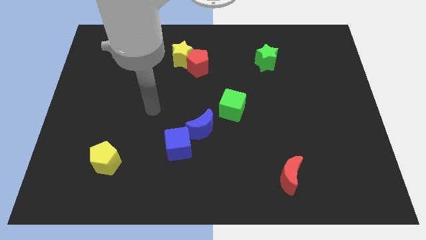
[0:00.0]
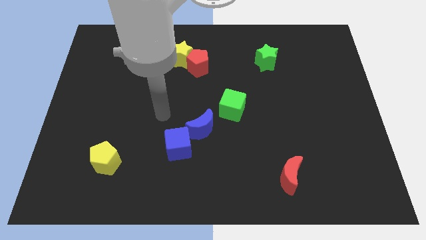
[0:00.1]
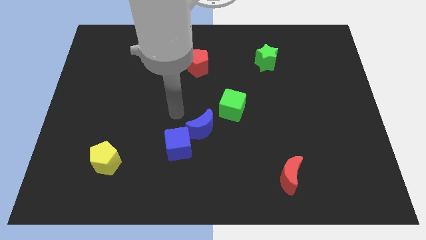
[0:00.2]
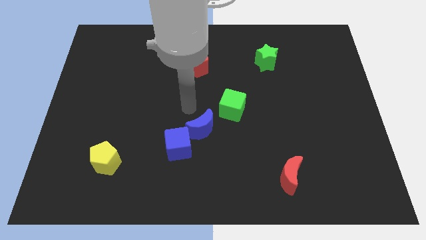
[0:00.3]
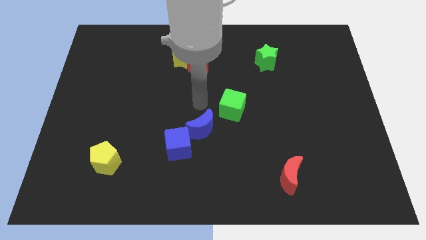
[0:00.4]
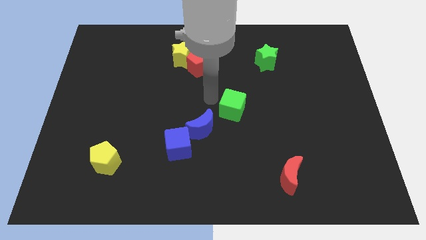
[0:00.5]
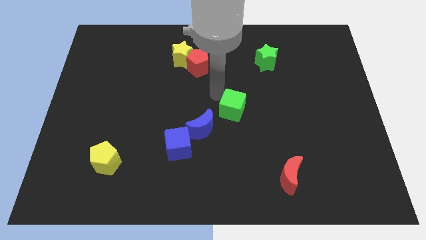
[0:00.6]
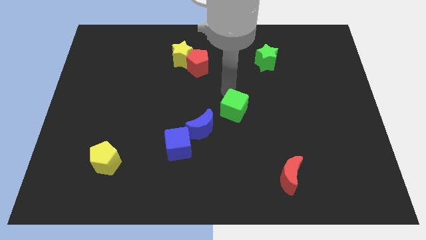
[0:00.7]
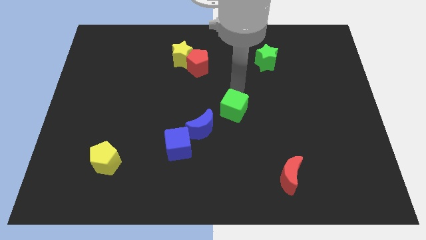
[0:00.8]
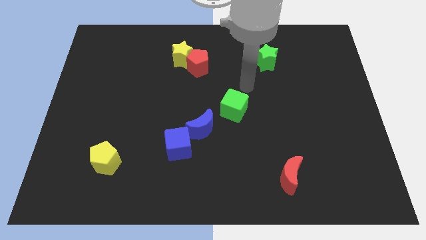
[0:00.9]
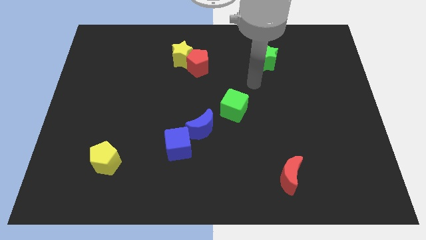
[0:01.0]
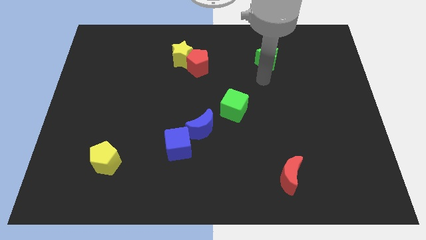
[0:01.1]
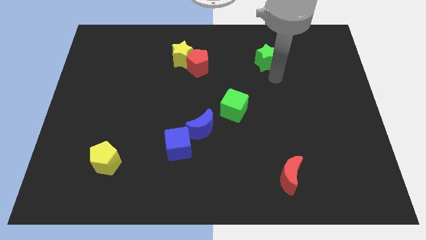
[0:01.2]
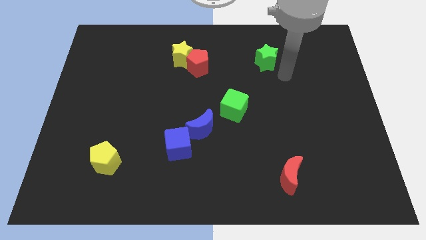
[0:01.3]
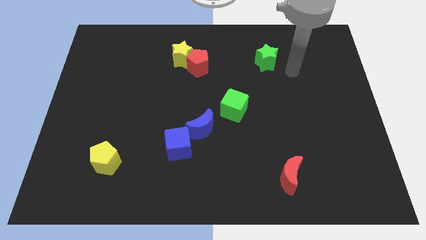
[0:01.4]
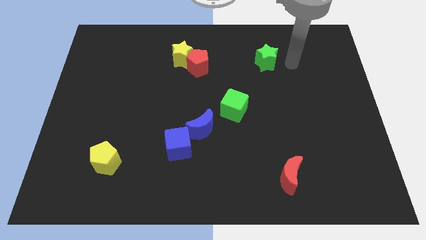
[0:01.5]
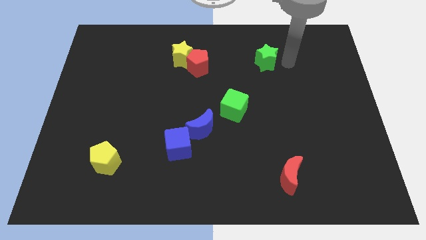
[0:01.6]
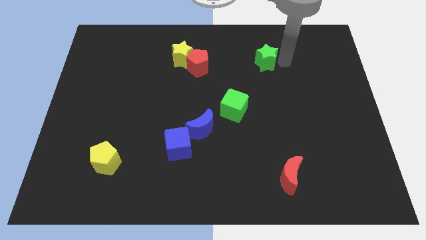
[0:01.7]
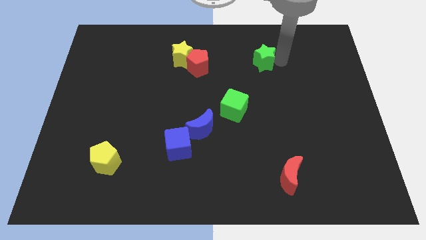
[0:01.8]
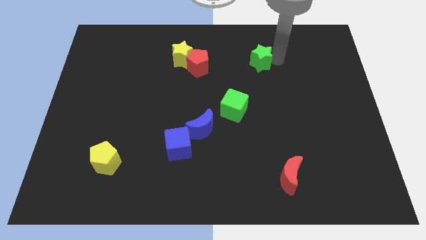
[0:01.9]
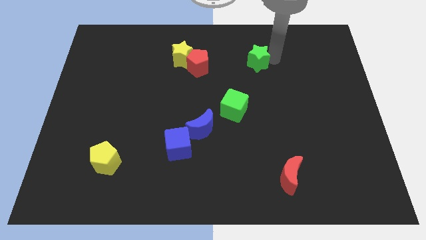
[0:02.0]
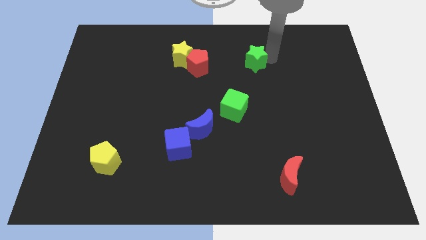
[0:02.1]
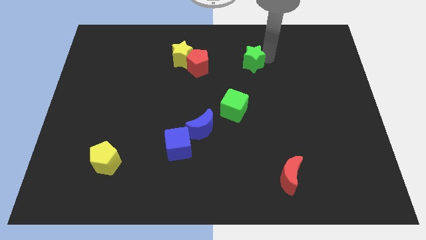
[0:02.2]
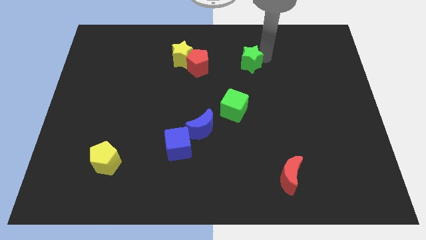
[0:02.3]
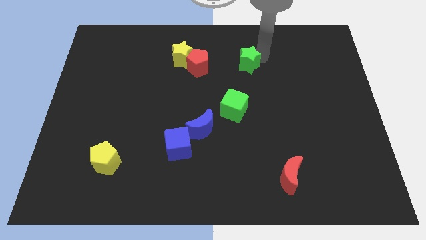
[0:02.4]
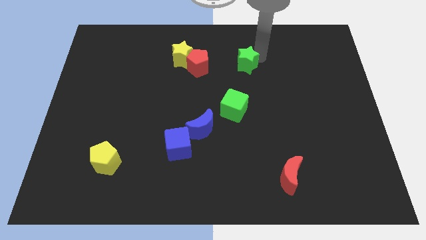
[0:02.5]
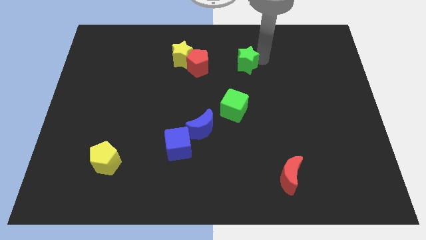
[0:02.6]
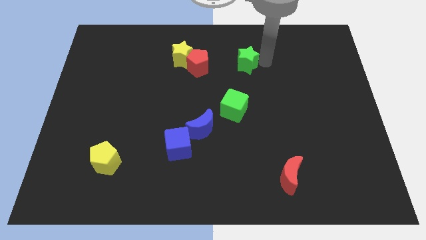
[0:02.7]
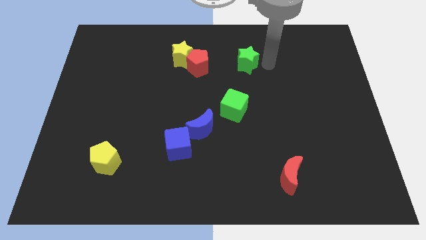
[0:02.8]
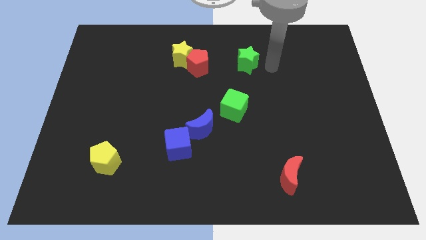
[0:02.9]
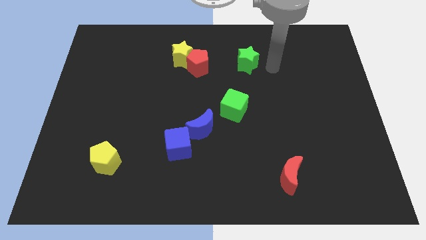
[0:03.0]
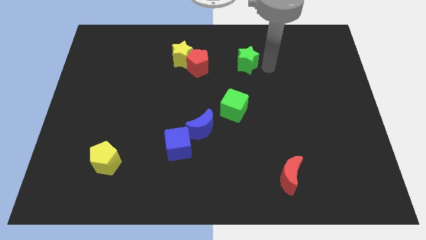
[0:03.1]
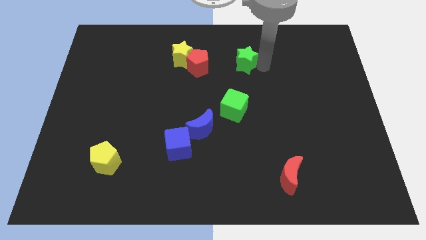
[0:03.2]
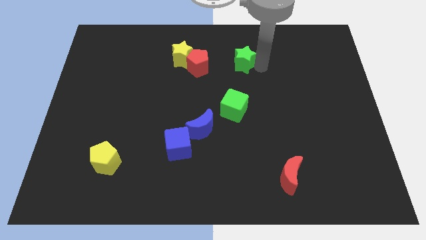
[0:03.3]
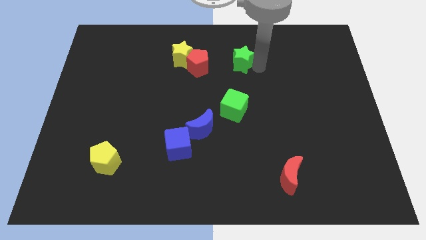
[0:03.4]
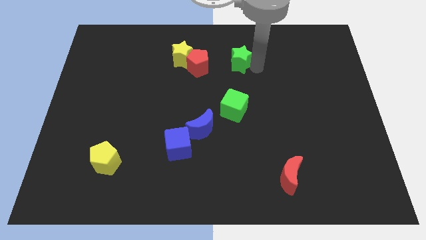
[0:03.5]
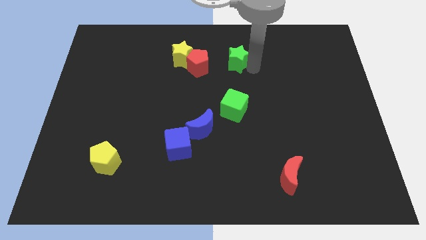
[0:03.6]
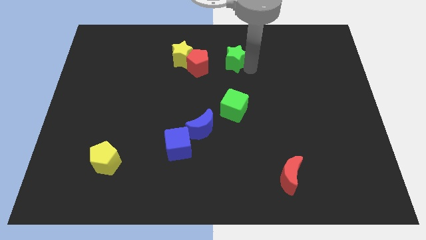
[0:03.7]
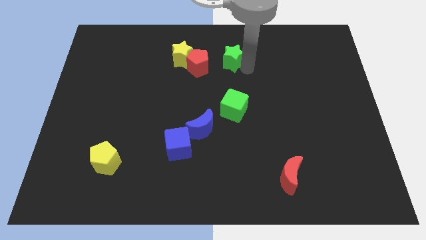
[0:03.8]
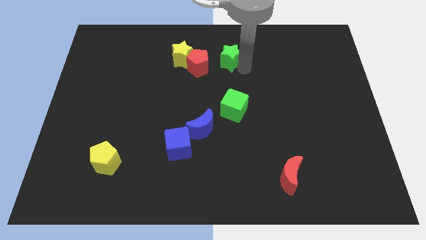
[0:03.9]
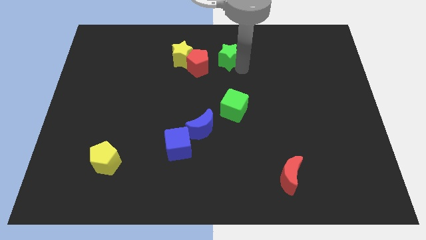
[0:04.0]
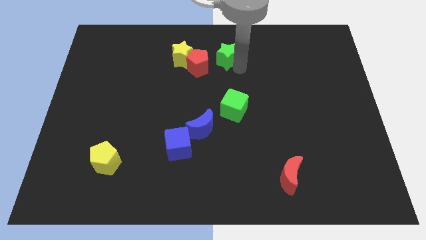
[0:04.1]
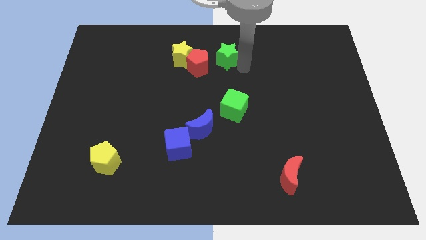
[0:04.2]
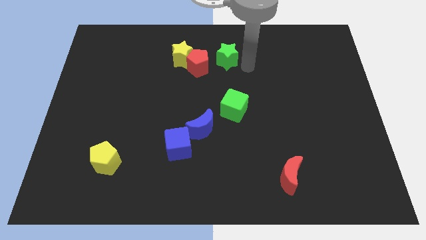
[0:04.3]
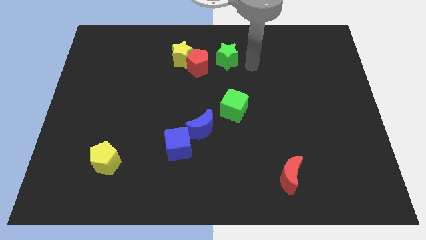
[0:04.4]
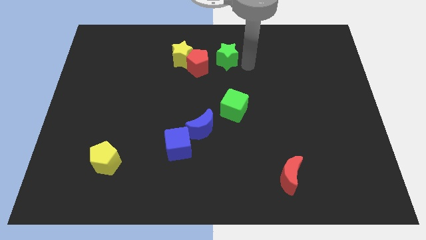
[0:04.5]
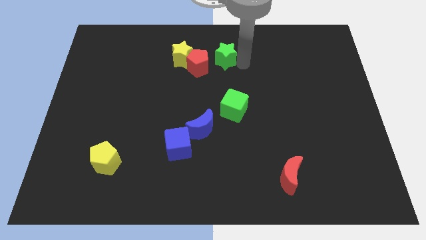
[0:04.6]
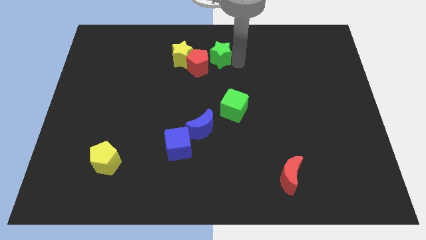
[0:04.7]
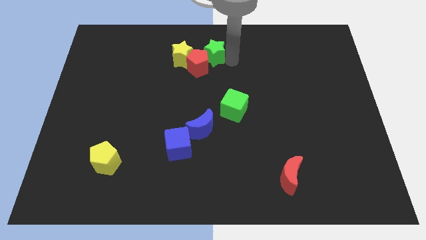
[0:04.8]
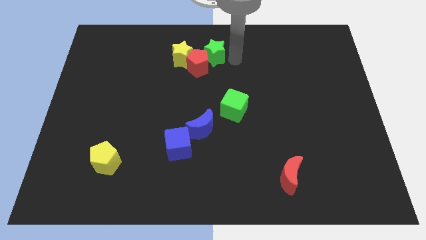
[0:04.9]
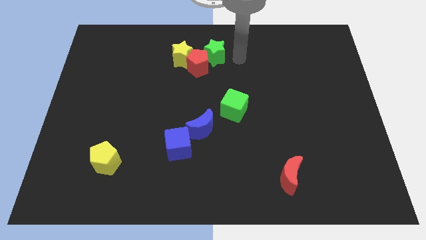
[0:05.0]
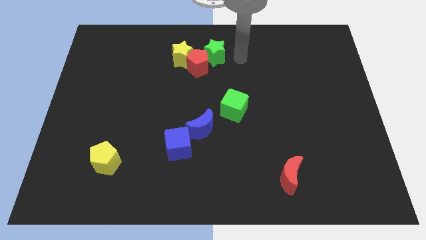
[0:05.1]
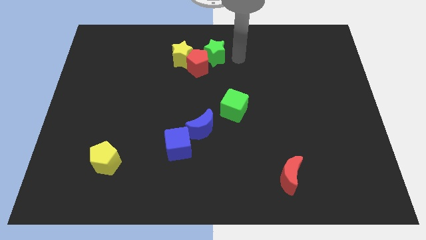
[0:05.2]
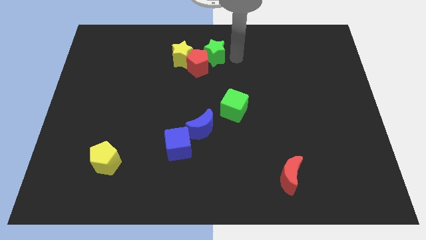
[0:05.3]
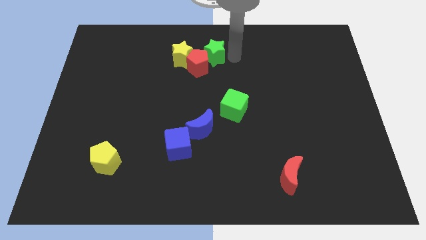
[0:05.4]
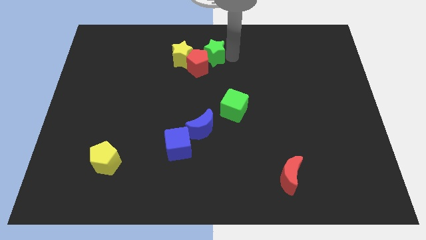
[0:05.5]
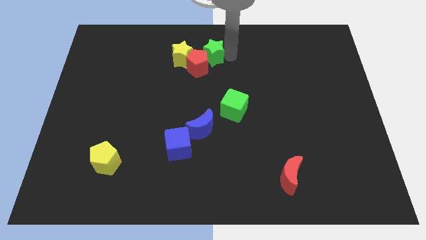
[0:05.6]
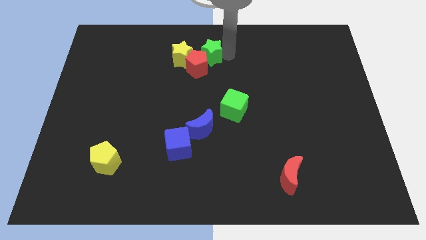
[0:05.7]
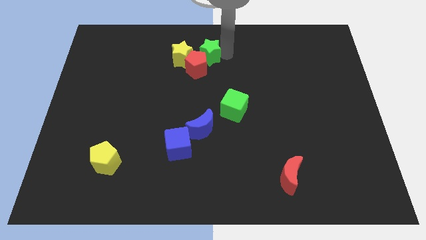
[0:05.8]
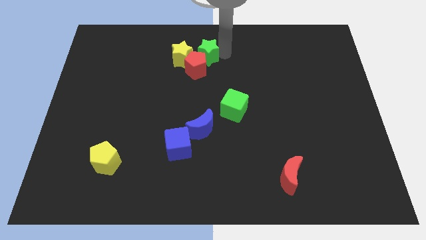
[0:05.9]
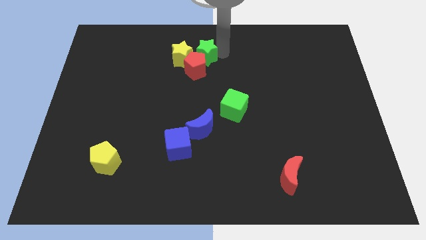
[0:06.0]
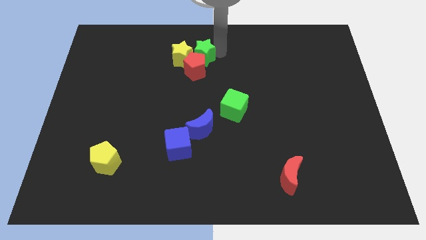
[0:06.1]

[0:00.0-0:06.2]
move the green star towards the yellow star

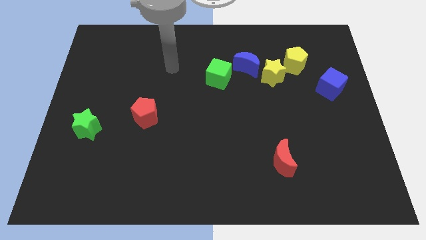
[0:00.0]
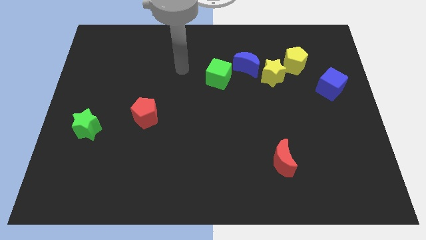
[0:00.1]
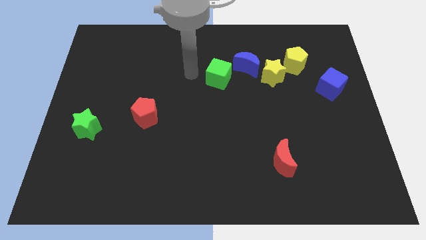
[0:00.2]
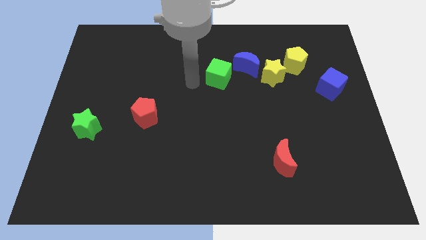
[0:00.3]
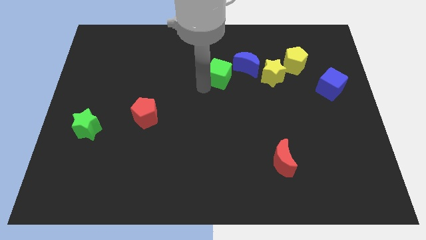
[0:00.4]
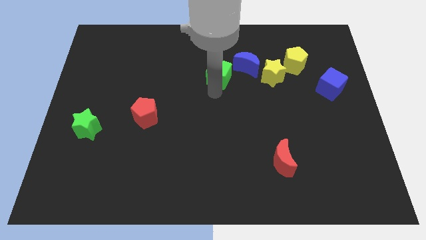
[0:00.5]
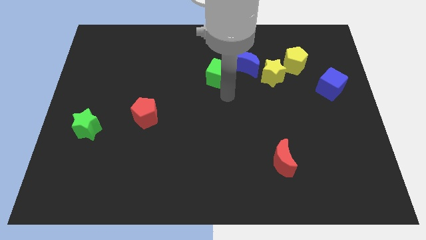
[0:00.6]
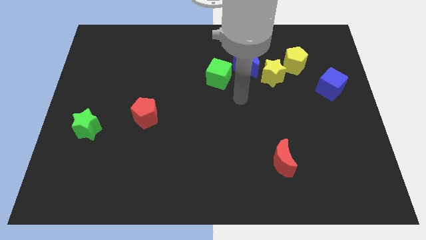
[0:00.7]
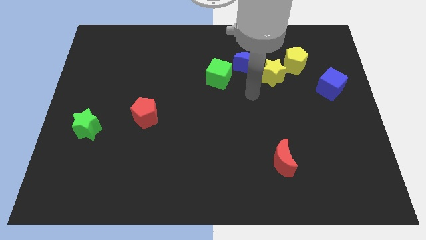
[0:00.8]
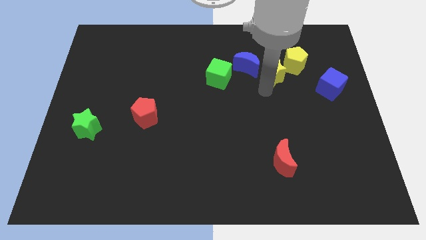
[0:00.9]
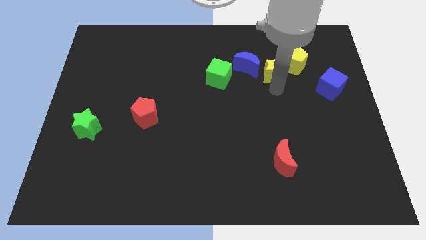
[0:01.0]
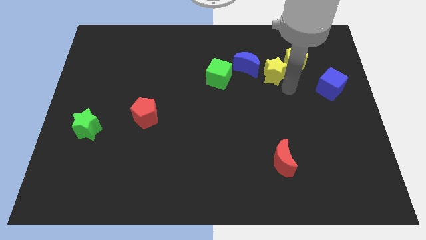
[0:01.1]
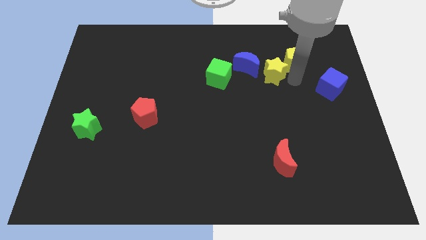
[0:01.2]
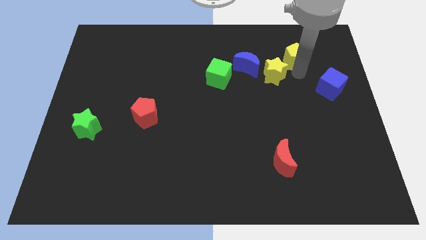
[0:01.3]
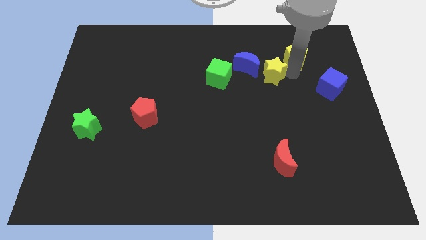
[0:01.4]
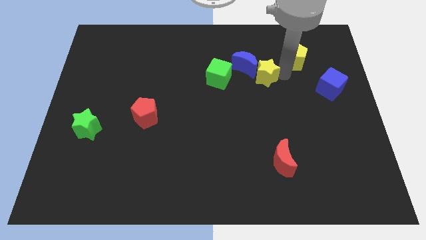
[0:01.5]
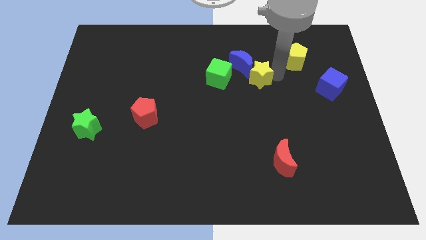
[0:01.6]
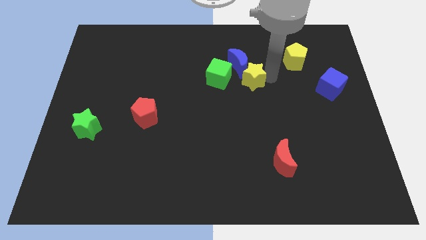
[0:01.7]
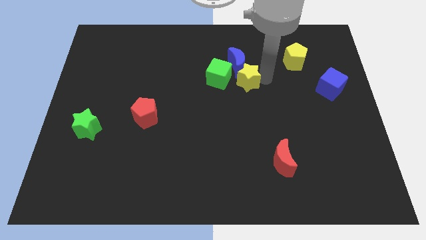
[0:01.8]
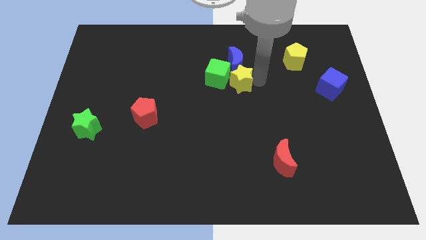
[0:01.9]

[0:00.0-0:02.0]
push the yellow star close to the green cube
